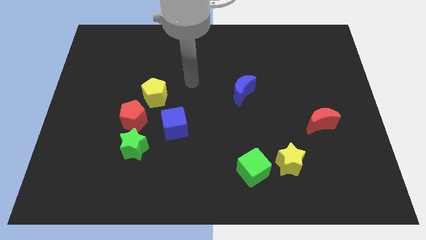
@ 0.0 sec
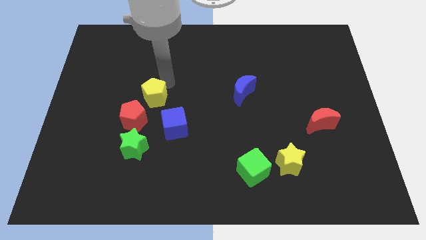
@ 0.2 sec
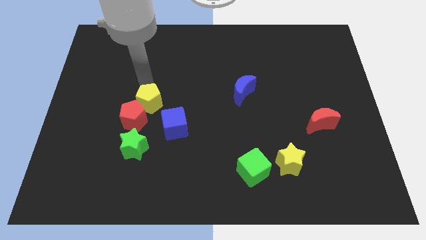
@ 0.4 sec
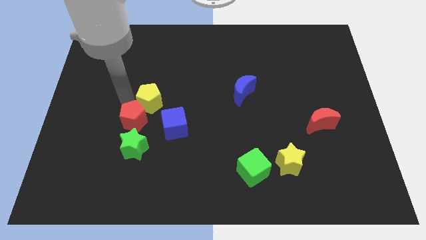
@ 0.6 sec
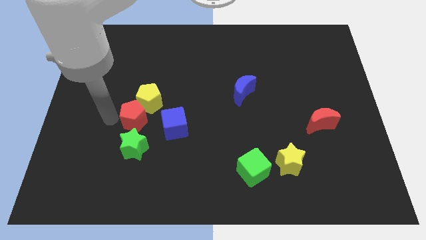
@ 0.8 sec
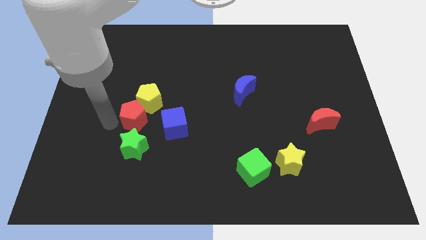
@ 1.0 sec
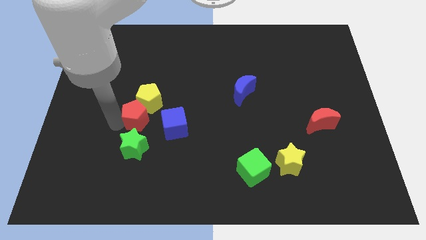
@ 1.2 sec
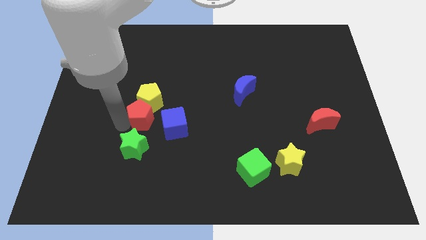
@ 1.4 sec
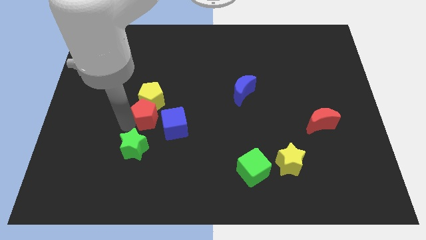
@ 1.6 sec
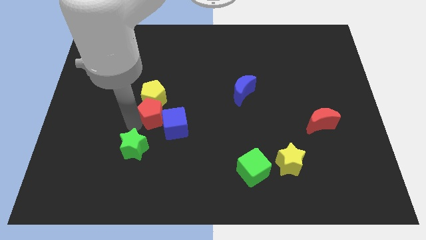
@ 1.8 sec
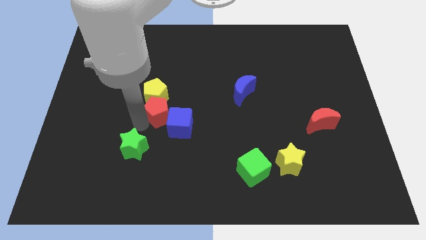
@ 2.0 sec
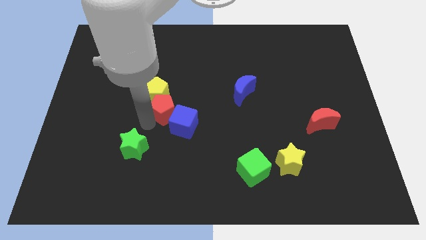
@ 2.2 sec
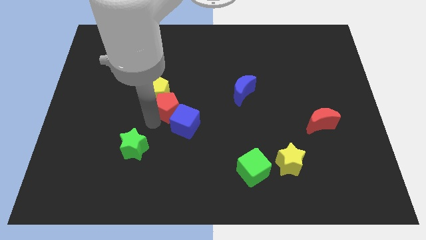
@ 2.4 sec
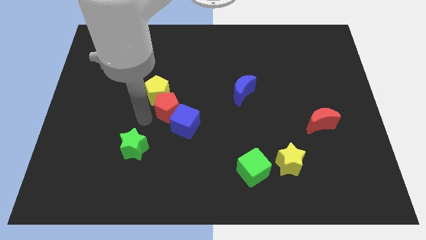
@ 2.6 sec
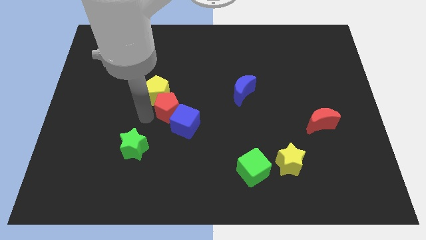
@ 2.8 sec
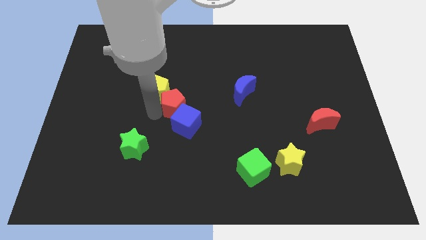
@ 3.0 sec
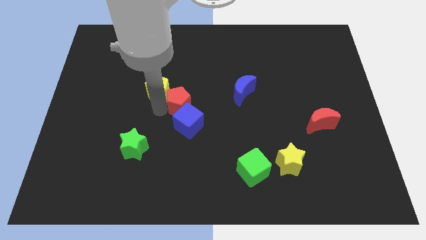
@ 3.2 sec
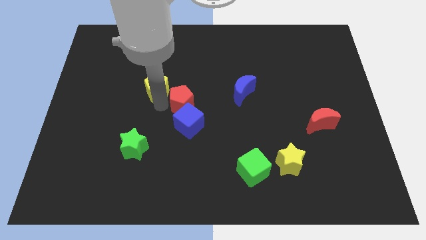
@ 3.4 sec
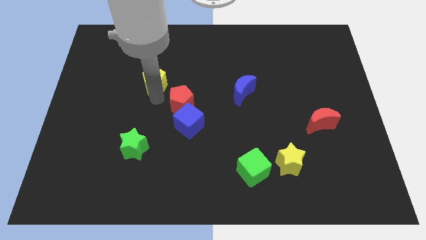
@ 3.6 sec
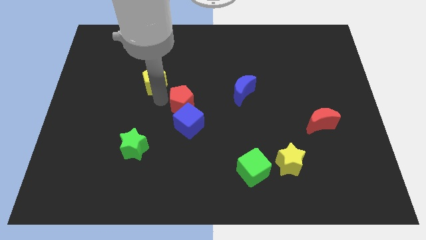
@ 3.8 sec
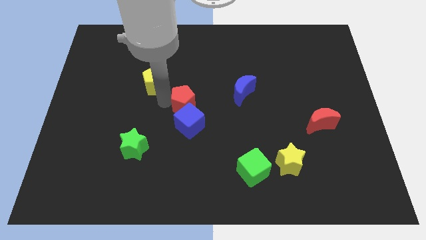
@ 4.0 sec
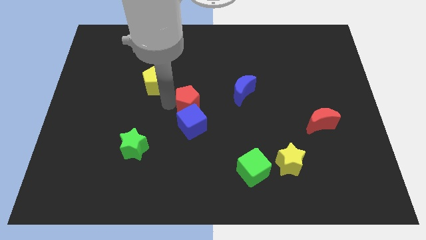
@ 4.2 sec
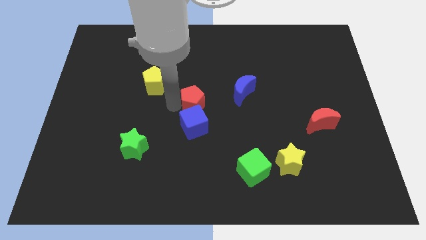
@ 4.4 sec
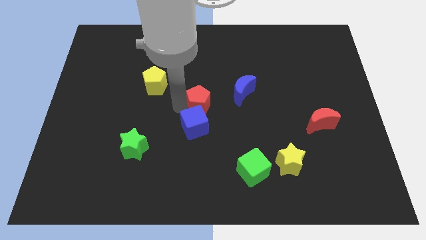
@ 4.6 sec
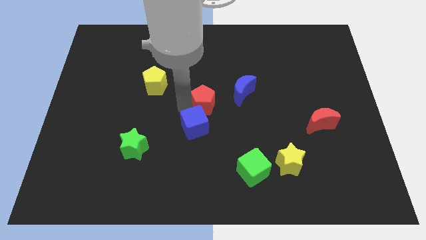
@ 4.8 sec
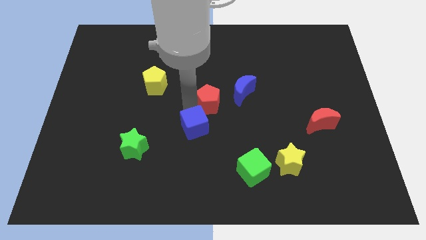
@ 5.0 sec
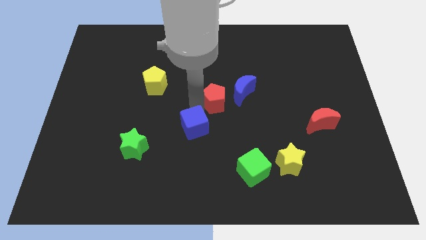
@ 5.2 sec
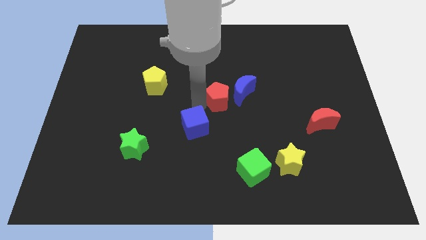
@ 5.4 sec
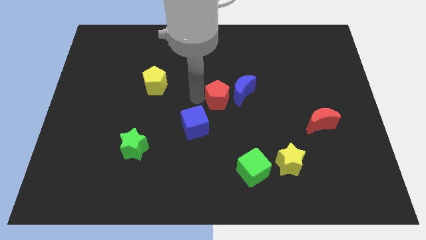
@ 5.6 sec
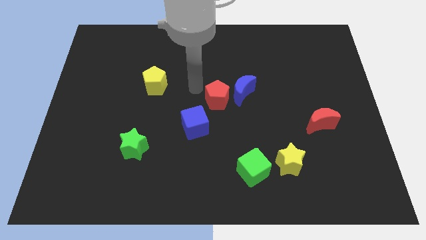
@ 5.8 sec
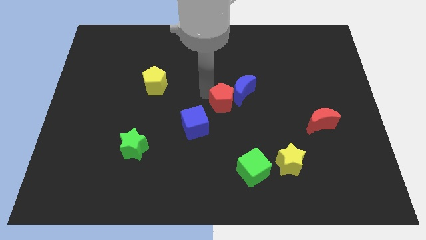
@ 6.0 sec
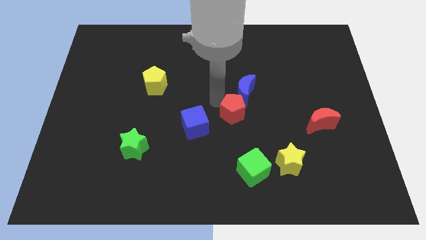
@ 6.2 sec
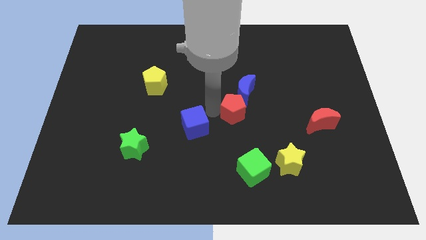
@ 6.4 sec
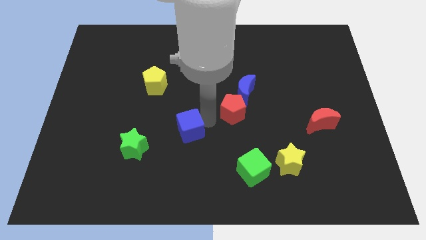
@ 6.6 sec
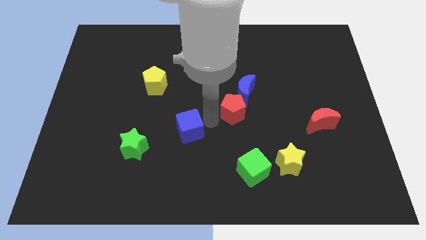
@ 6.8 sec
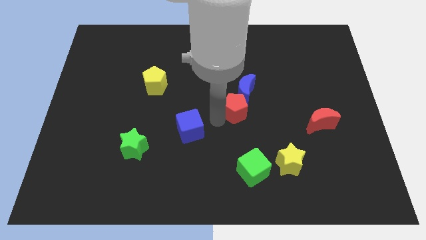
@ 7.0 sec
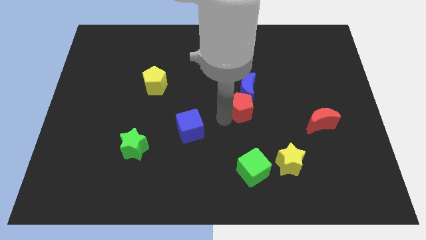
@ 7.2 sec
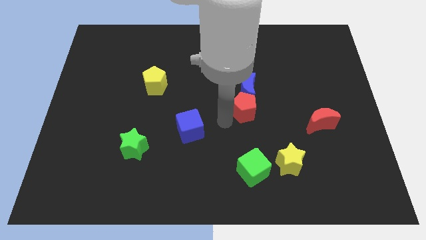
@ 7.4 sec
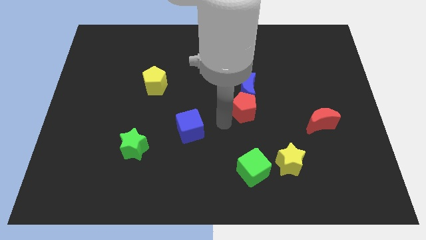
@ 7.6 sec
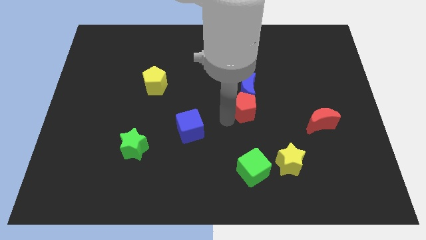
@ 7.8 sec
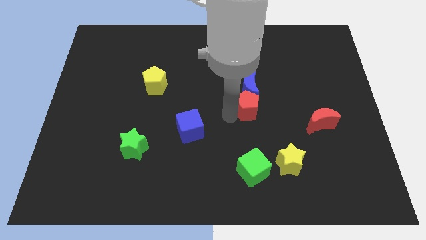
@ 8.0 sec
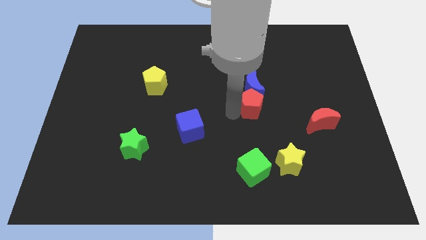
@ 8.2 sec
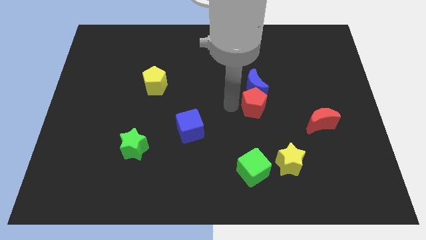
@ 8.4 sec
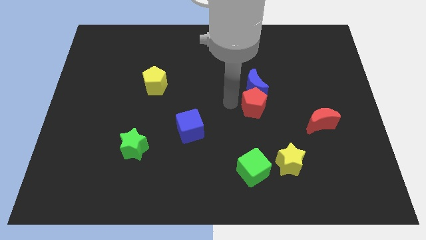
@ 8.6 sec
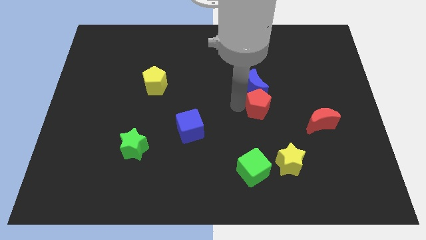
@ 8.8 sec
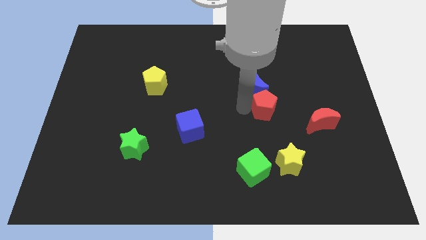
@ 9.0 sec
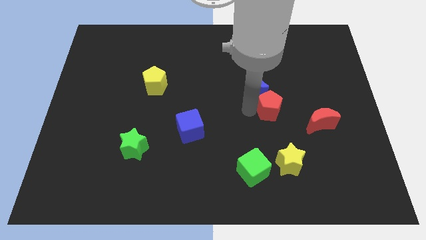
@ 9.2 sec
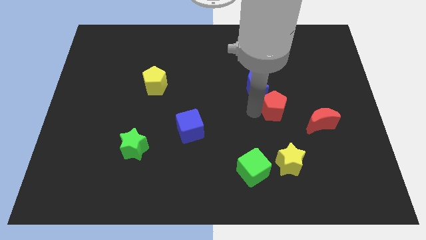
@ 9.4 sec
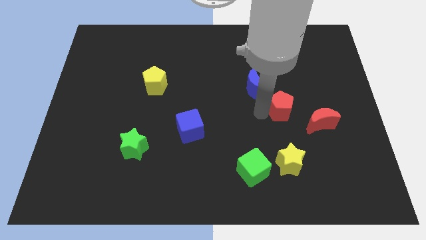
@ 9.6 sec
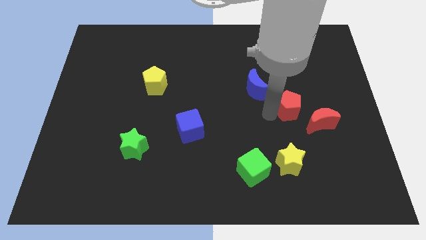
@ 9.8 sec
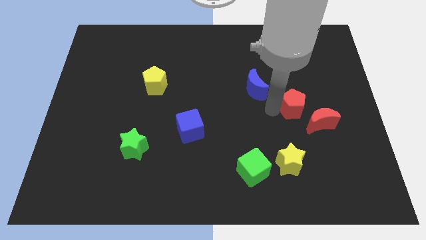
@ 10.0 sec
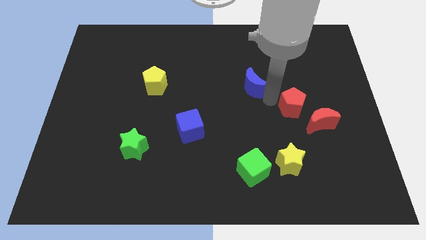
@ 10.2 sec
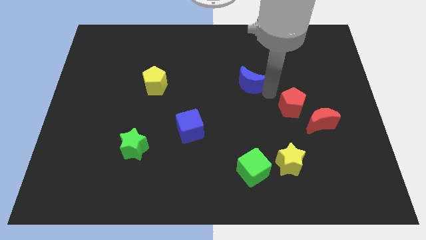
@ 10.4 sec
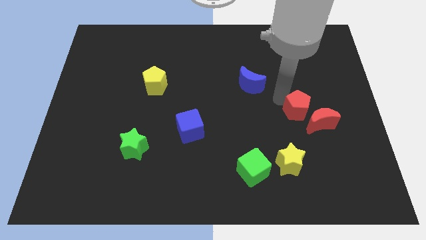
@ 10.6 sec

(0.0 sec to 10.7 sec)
move the red pentagon close to the red moon

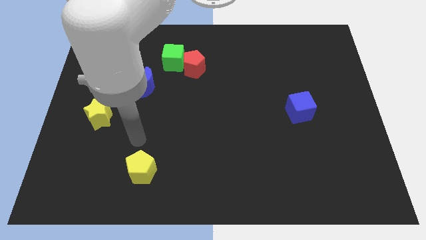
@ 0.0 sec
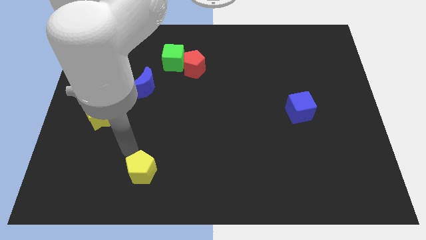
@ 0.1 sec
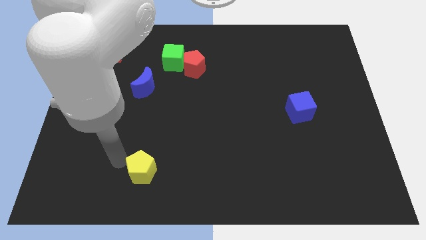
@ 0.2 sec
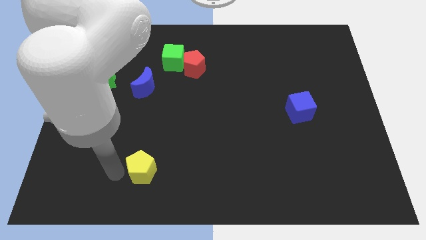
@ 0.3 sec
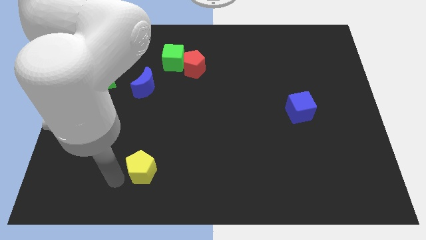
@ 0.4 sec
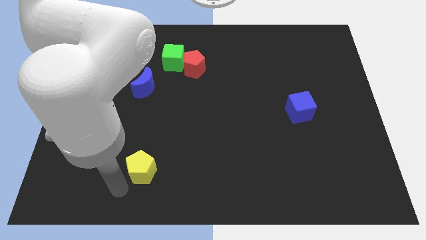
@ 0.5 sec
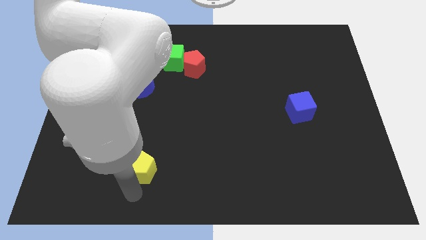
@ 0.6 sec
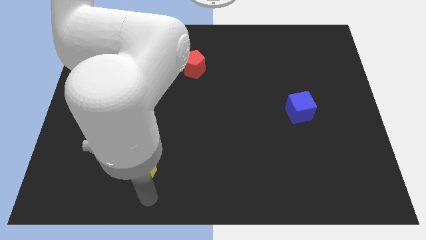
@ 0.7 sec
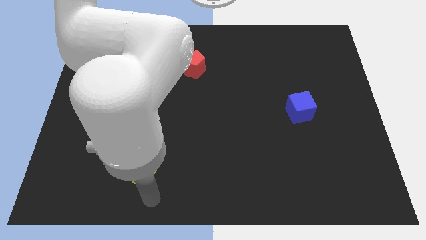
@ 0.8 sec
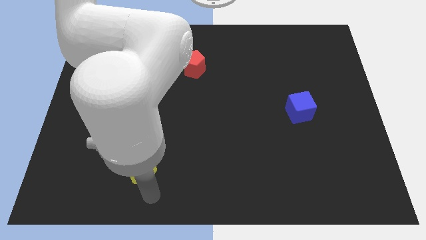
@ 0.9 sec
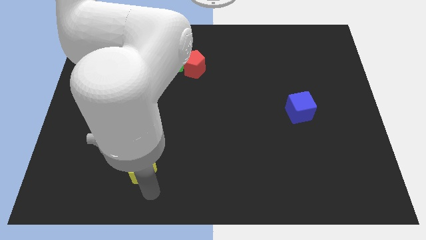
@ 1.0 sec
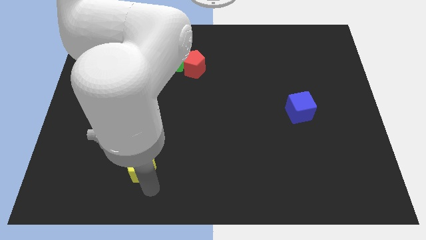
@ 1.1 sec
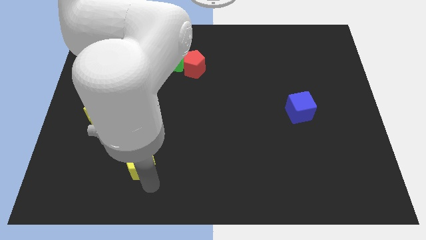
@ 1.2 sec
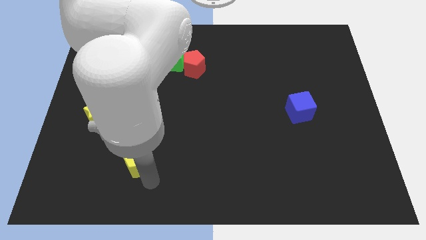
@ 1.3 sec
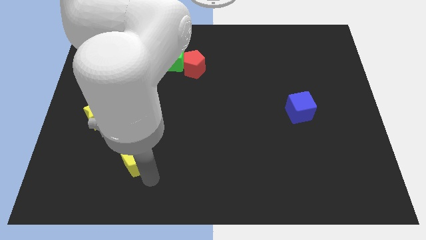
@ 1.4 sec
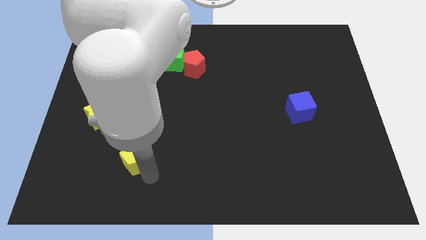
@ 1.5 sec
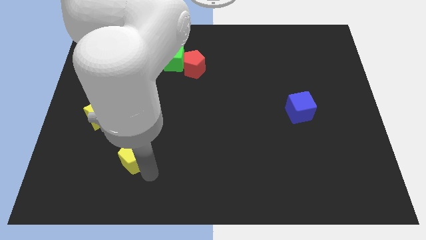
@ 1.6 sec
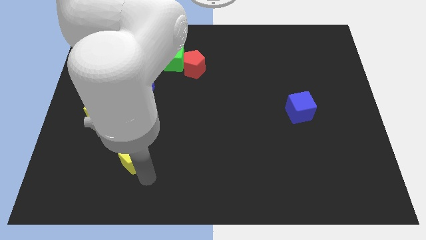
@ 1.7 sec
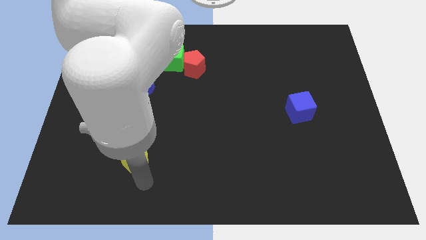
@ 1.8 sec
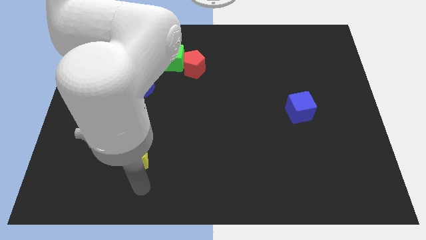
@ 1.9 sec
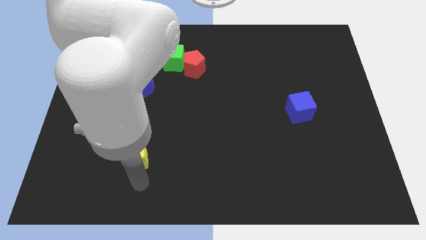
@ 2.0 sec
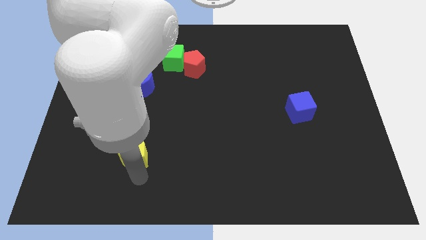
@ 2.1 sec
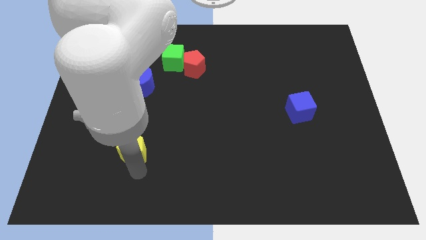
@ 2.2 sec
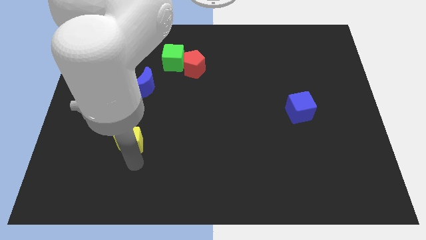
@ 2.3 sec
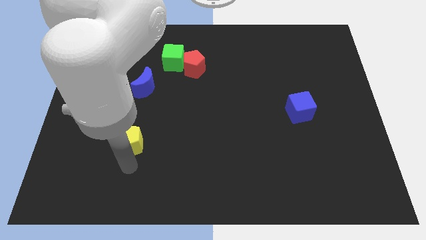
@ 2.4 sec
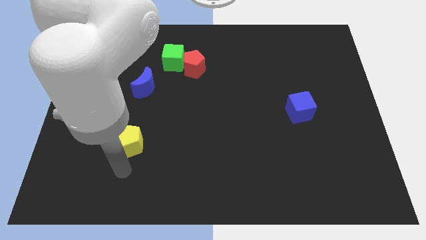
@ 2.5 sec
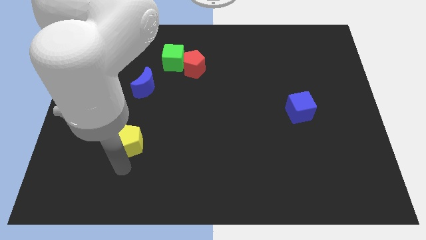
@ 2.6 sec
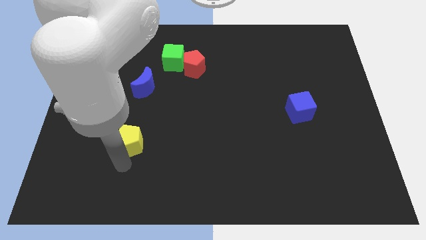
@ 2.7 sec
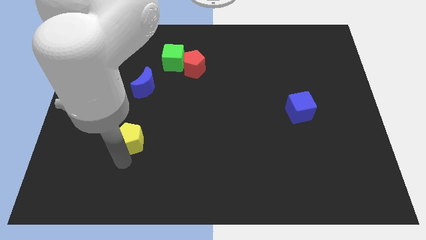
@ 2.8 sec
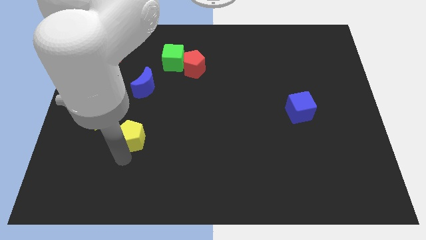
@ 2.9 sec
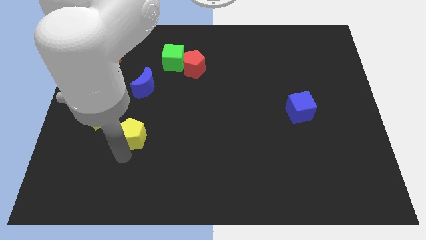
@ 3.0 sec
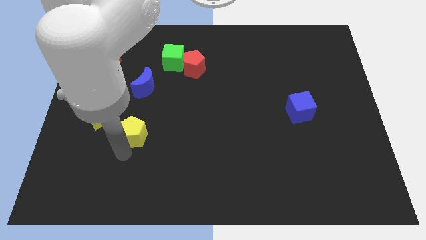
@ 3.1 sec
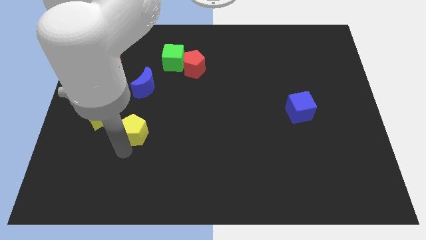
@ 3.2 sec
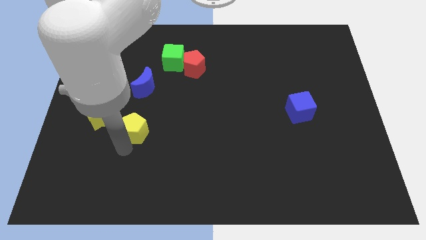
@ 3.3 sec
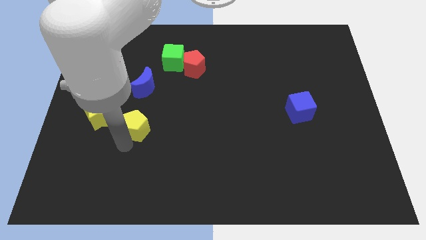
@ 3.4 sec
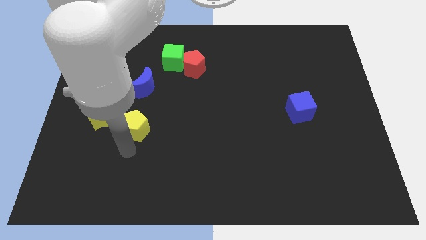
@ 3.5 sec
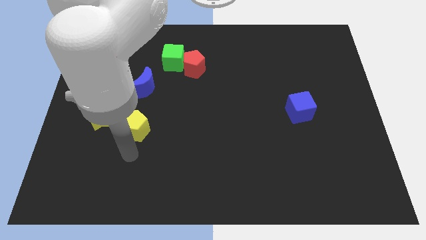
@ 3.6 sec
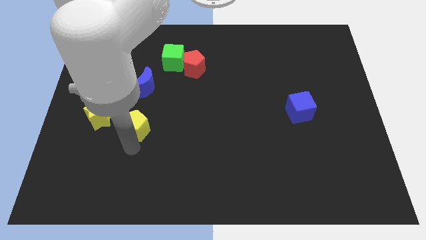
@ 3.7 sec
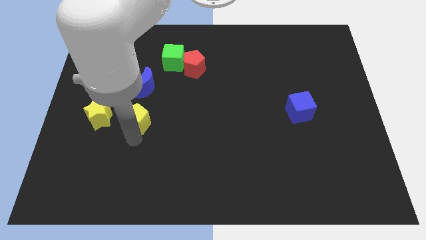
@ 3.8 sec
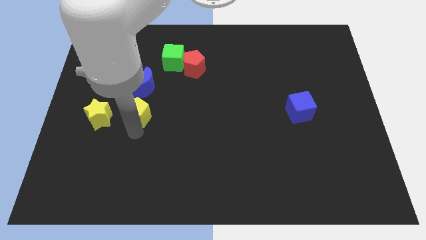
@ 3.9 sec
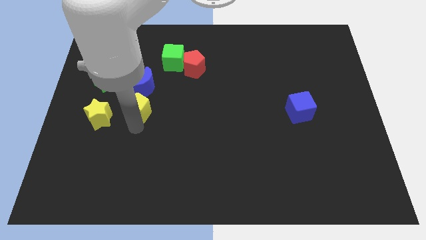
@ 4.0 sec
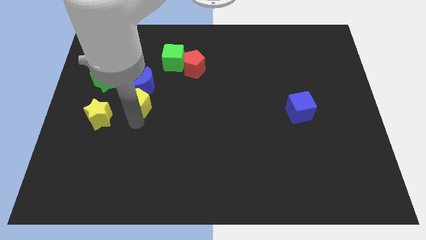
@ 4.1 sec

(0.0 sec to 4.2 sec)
put the yellow pentagon to the blue moon
